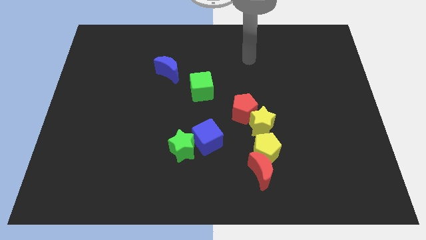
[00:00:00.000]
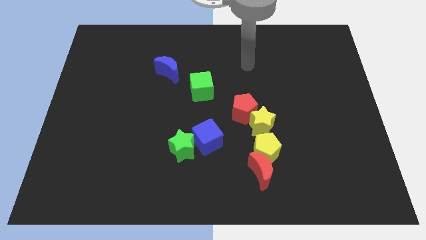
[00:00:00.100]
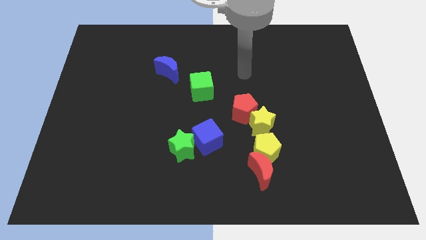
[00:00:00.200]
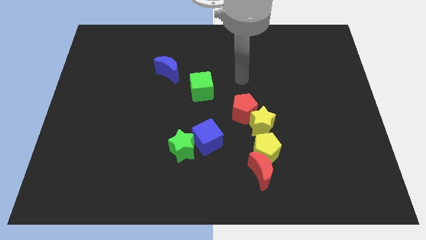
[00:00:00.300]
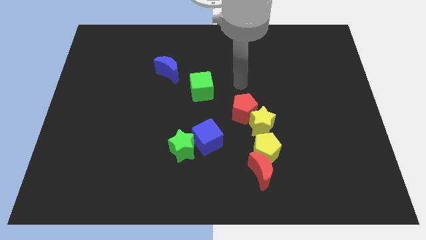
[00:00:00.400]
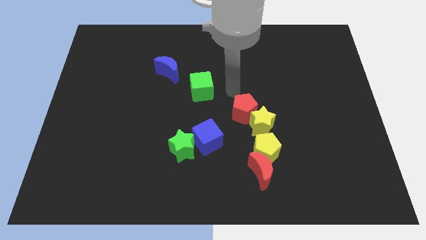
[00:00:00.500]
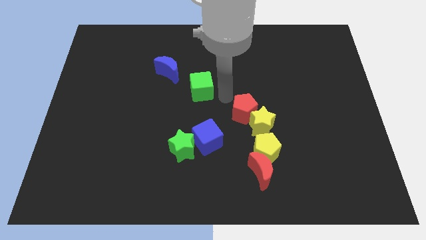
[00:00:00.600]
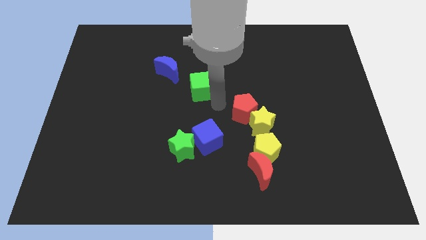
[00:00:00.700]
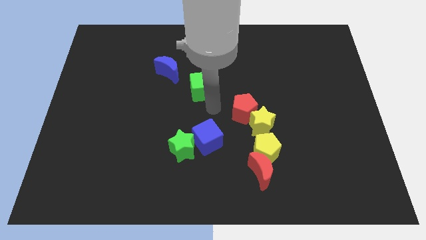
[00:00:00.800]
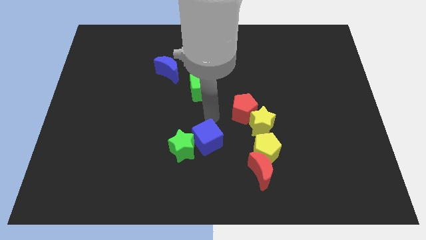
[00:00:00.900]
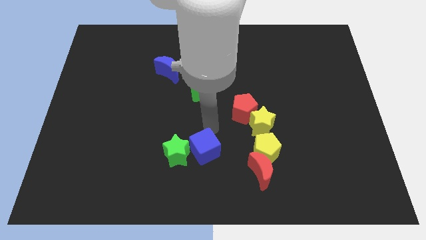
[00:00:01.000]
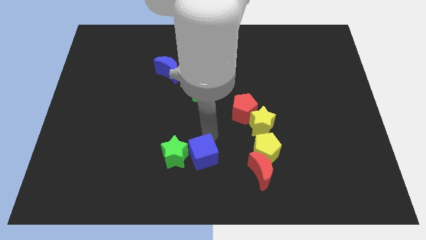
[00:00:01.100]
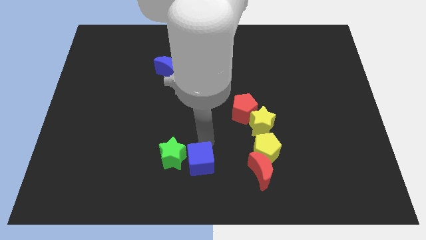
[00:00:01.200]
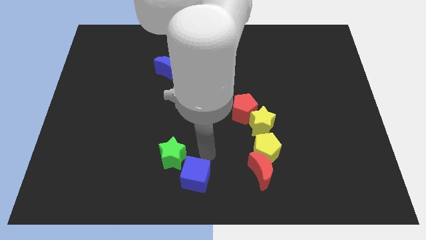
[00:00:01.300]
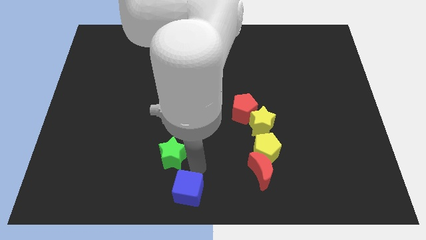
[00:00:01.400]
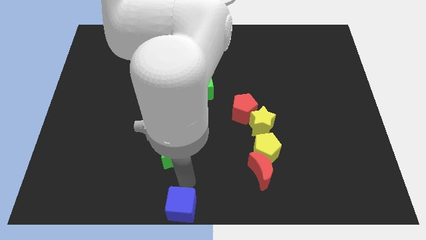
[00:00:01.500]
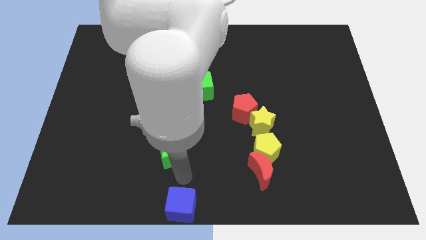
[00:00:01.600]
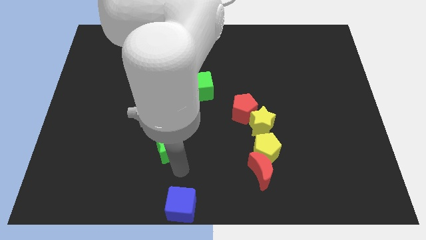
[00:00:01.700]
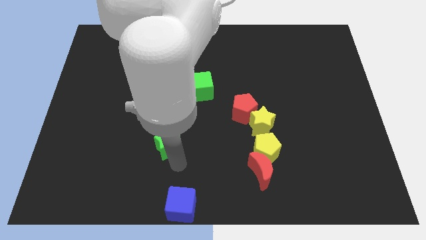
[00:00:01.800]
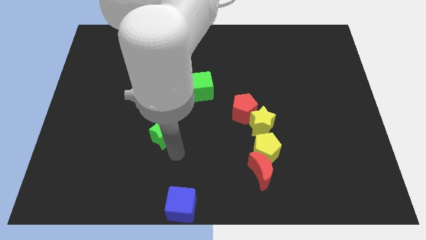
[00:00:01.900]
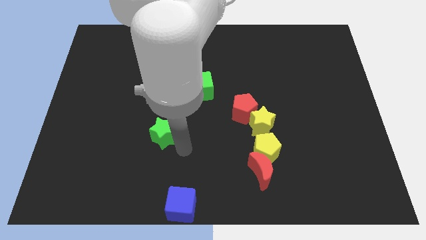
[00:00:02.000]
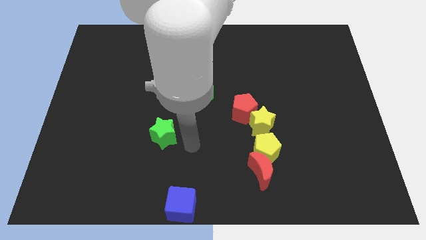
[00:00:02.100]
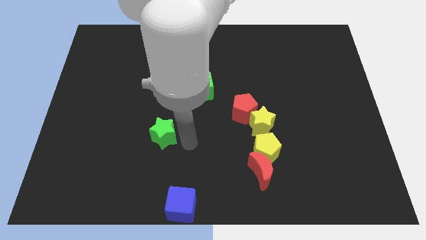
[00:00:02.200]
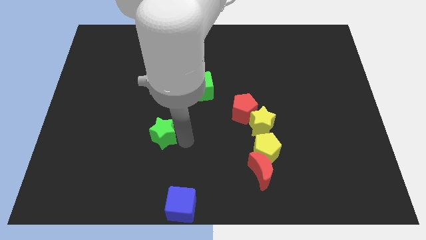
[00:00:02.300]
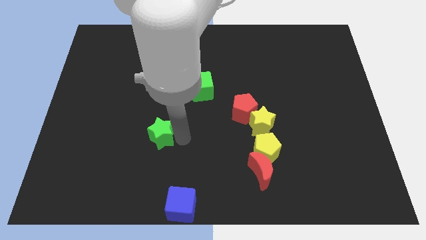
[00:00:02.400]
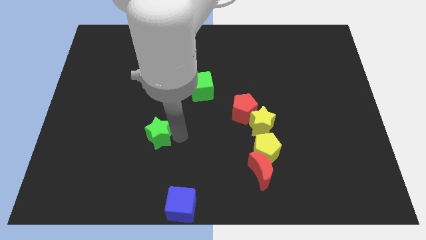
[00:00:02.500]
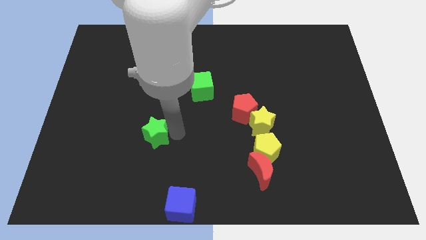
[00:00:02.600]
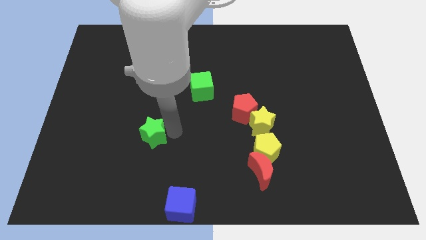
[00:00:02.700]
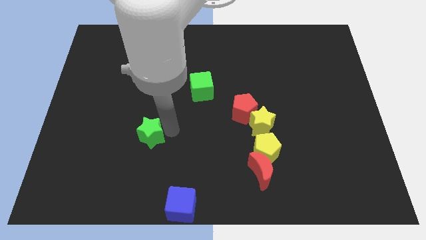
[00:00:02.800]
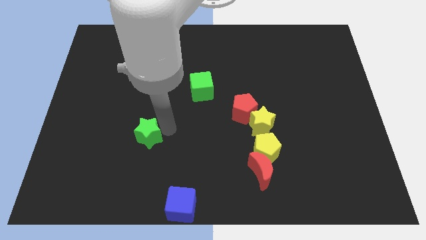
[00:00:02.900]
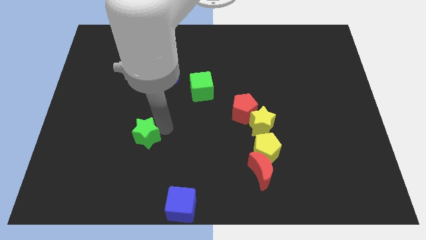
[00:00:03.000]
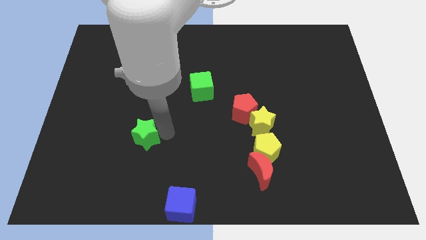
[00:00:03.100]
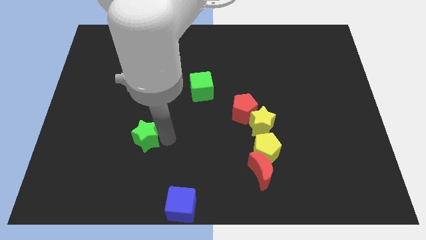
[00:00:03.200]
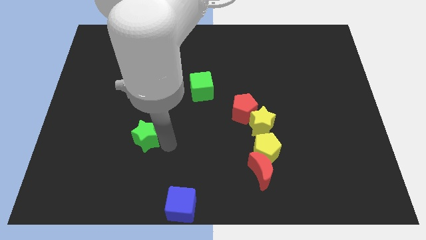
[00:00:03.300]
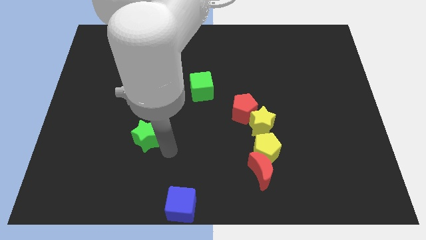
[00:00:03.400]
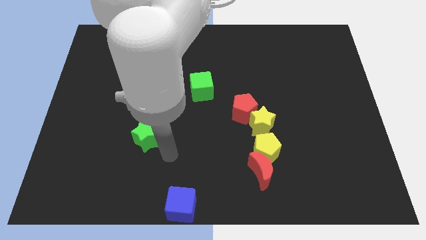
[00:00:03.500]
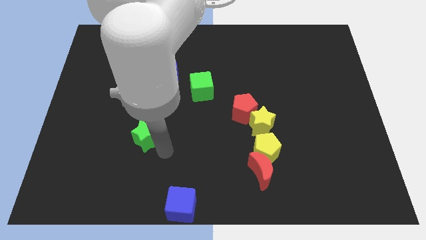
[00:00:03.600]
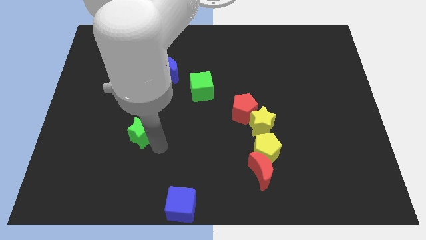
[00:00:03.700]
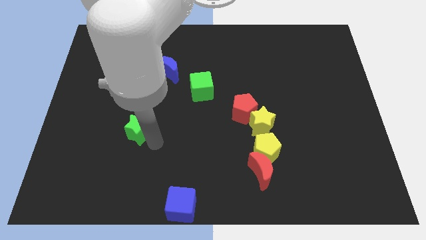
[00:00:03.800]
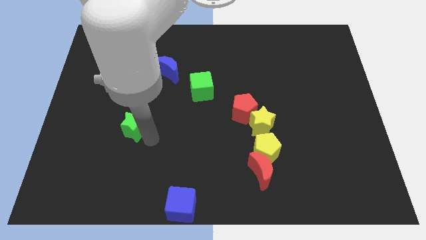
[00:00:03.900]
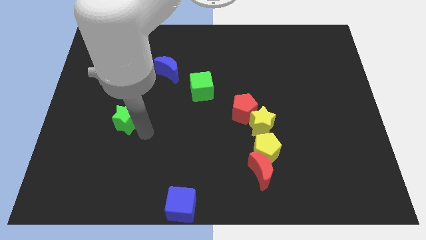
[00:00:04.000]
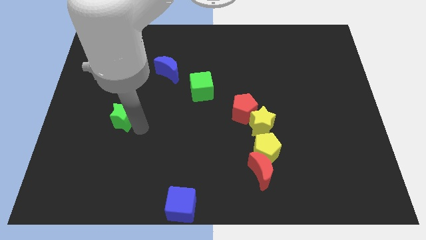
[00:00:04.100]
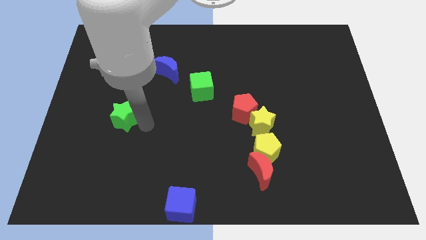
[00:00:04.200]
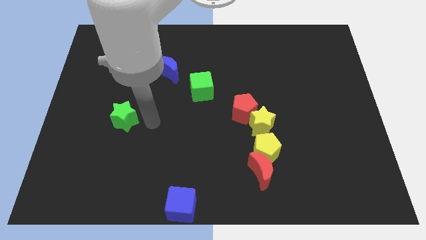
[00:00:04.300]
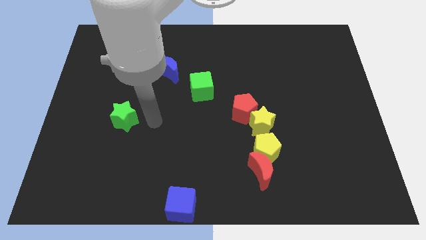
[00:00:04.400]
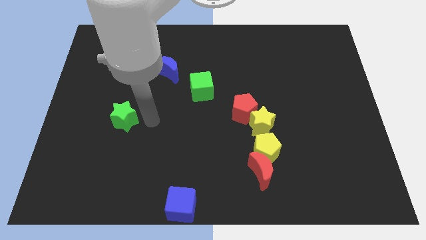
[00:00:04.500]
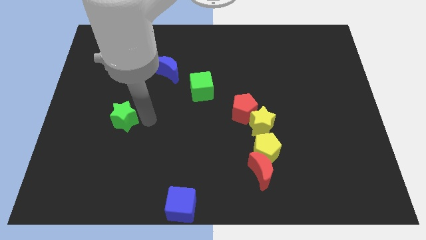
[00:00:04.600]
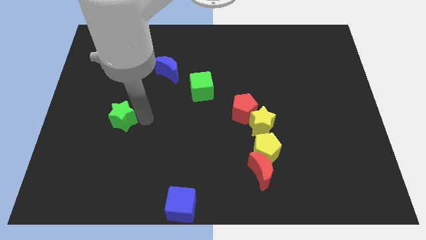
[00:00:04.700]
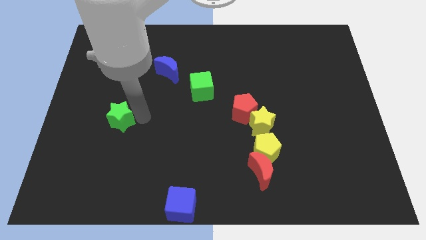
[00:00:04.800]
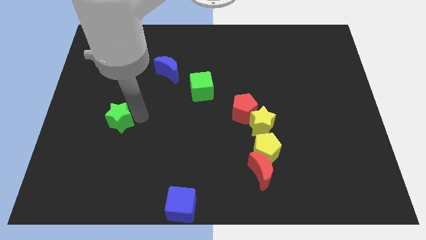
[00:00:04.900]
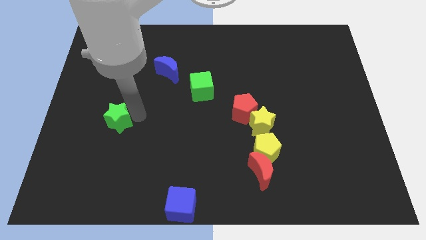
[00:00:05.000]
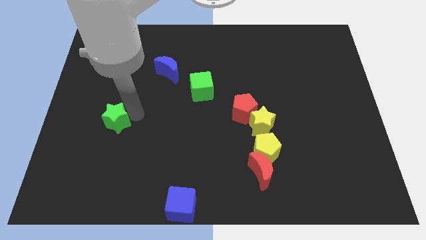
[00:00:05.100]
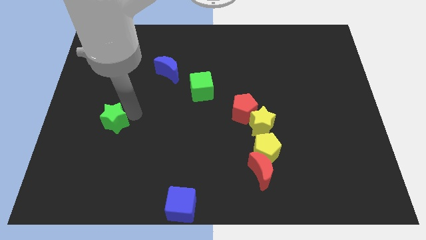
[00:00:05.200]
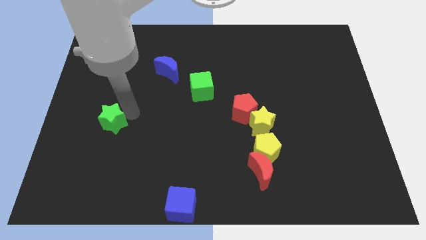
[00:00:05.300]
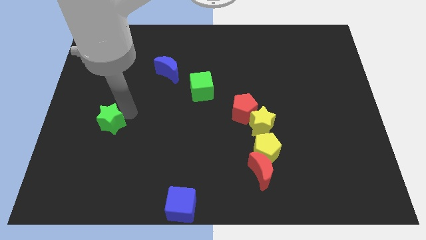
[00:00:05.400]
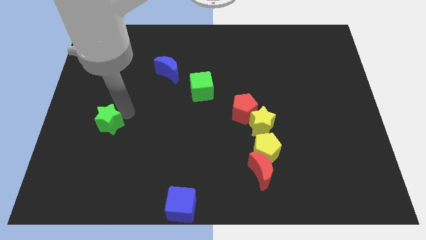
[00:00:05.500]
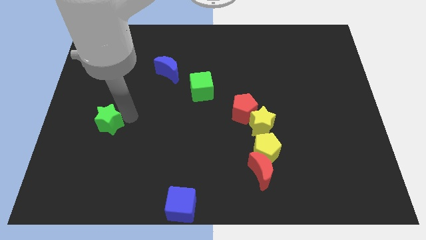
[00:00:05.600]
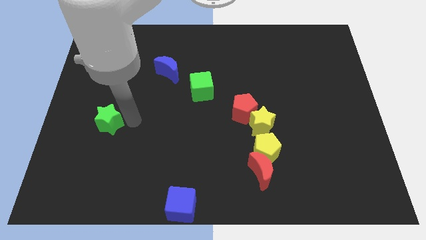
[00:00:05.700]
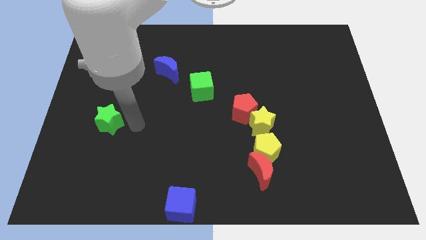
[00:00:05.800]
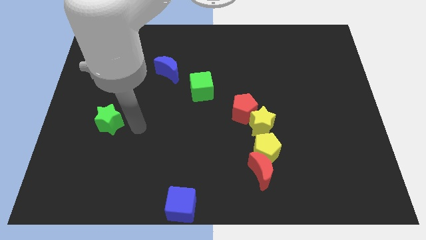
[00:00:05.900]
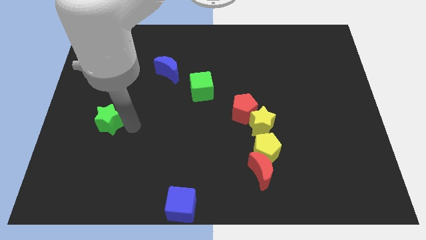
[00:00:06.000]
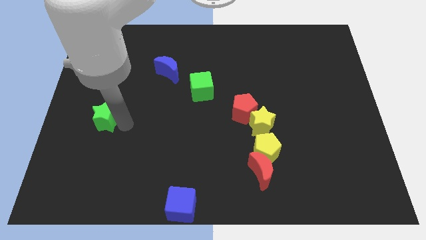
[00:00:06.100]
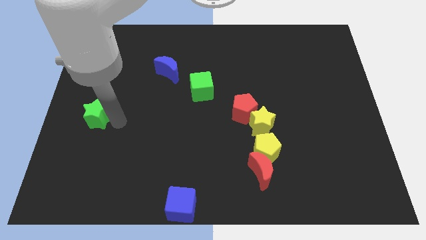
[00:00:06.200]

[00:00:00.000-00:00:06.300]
push the green star to the left side
